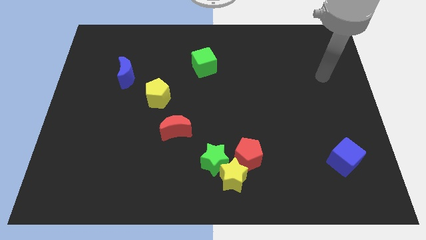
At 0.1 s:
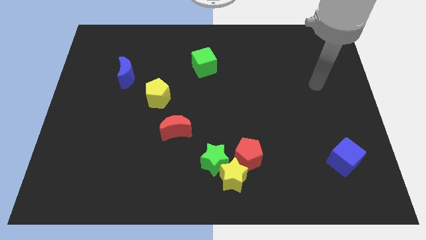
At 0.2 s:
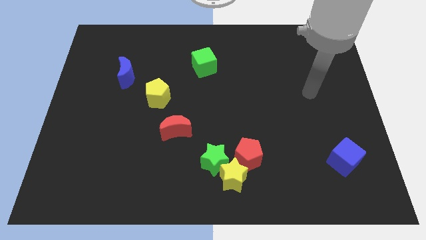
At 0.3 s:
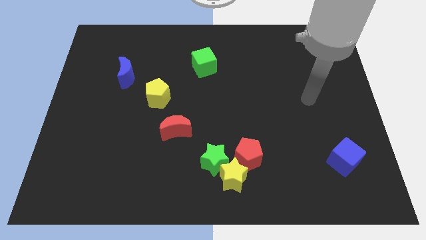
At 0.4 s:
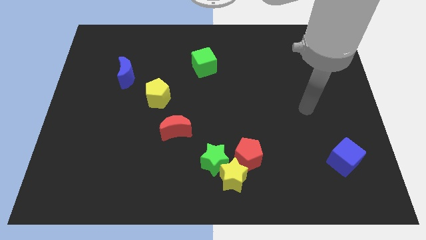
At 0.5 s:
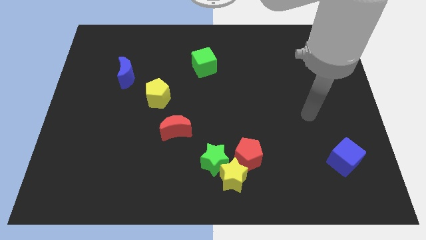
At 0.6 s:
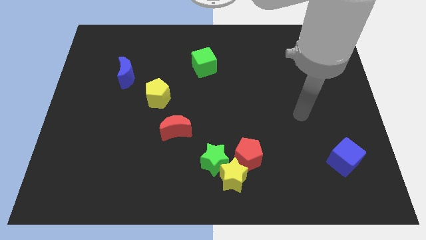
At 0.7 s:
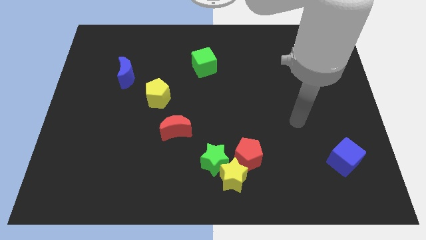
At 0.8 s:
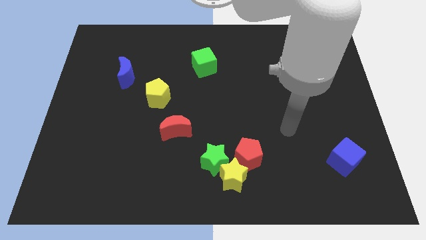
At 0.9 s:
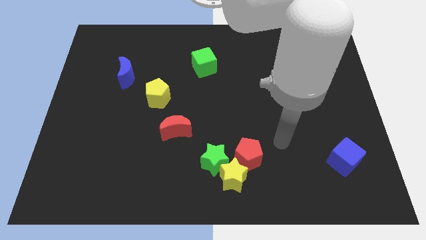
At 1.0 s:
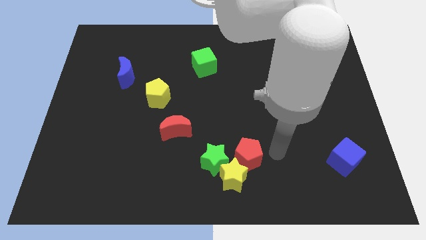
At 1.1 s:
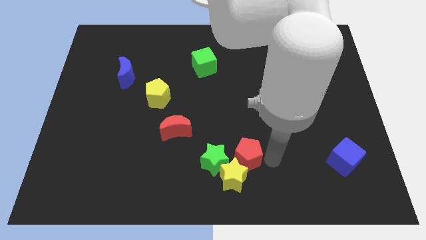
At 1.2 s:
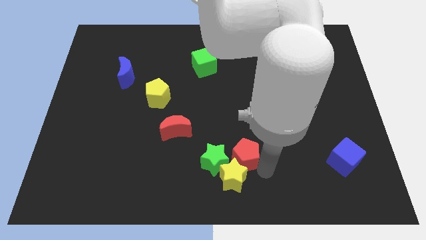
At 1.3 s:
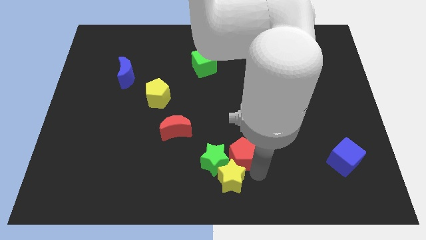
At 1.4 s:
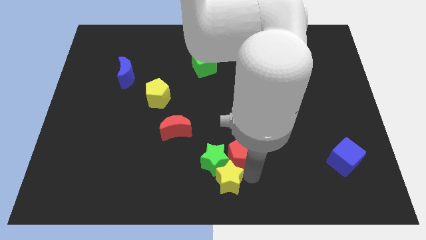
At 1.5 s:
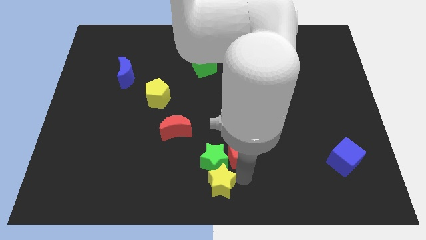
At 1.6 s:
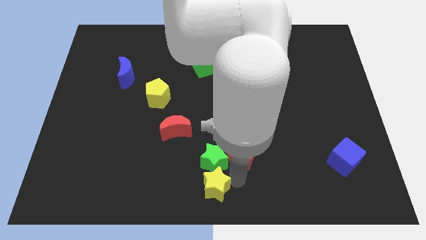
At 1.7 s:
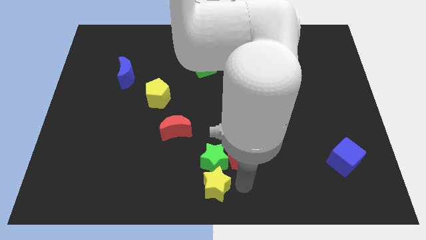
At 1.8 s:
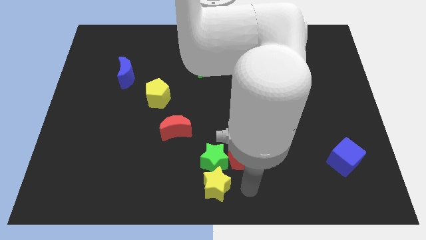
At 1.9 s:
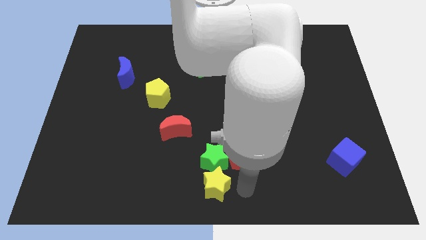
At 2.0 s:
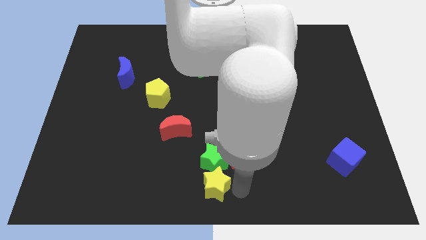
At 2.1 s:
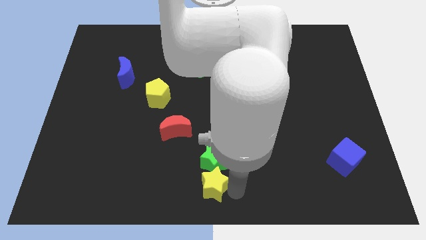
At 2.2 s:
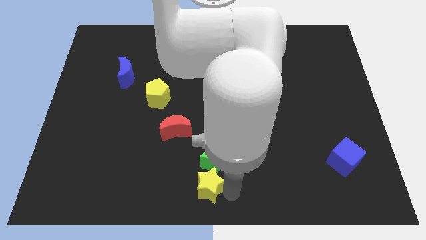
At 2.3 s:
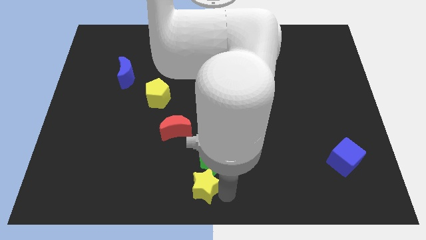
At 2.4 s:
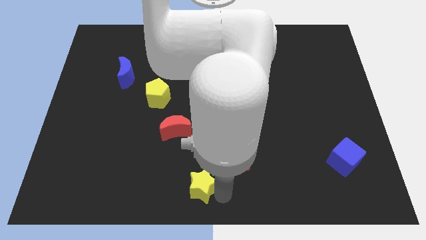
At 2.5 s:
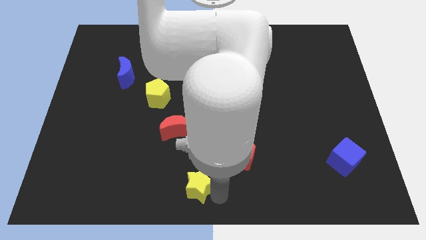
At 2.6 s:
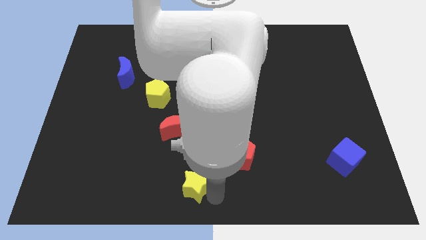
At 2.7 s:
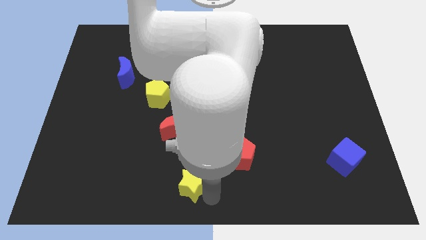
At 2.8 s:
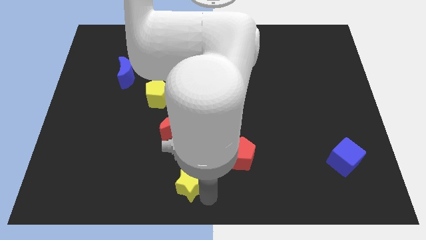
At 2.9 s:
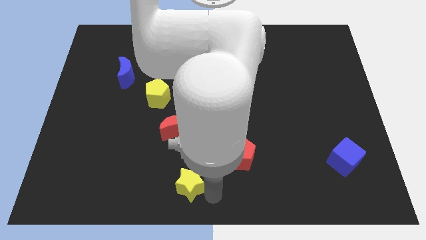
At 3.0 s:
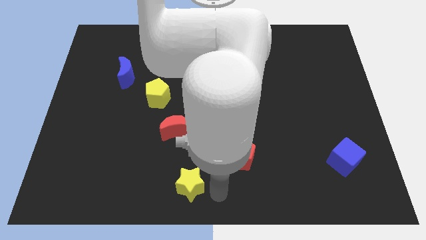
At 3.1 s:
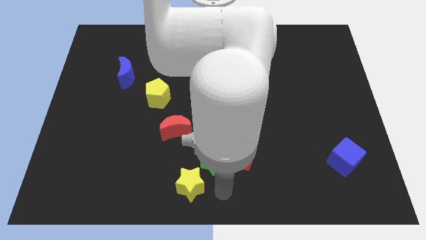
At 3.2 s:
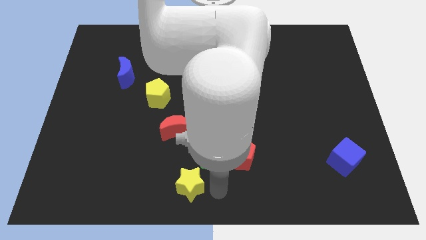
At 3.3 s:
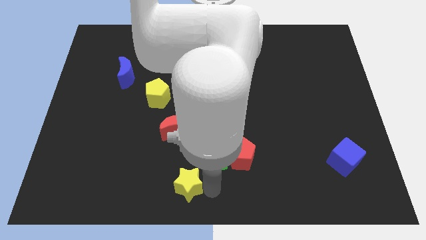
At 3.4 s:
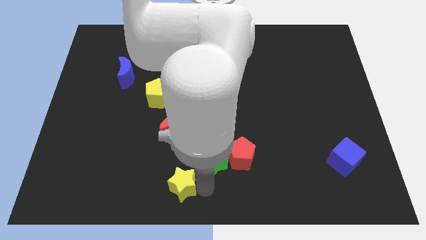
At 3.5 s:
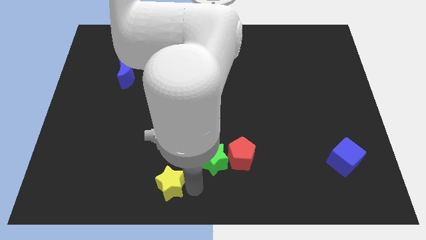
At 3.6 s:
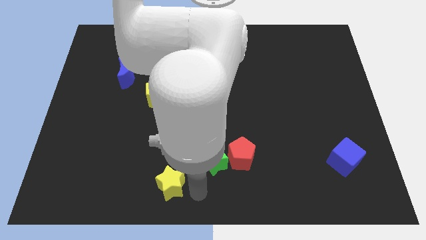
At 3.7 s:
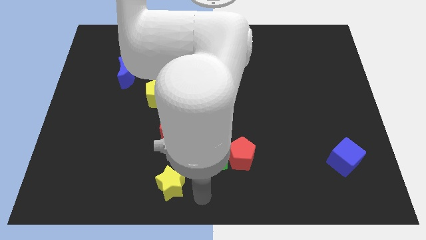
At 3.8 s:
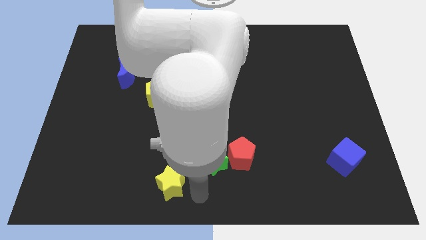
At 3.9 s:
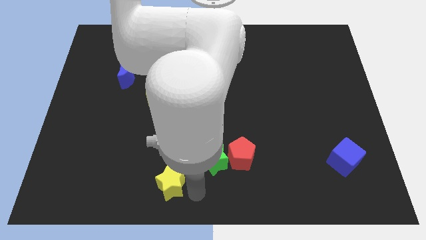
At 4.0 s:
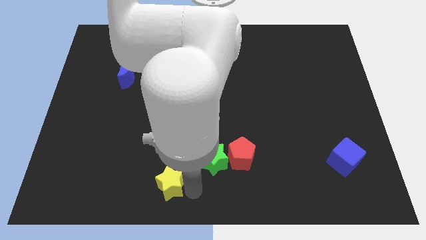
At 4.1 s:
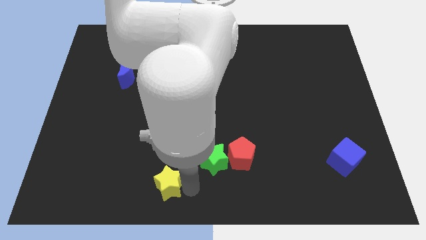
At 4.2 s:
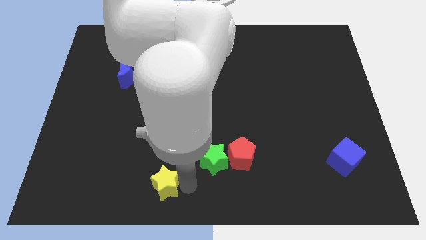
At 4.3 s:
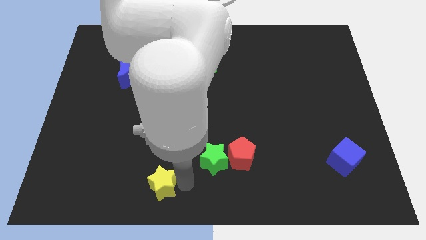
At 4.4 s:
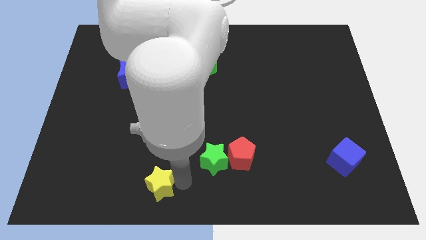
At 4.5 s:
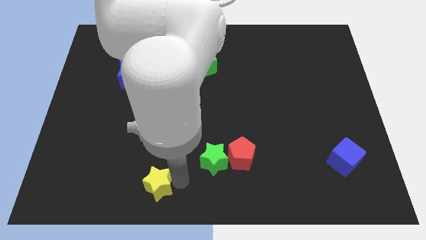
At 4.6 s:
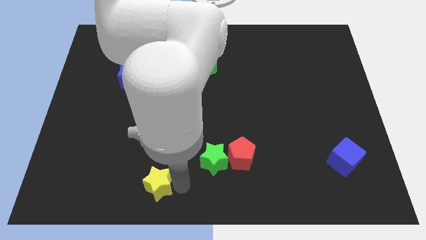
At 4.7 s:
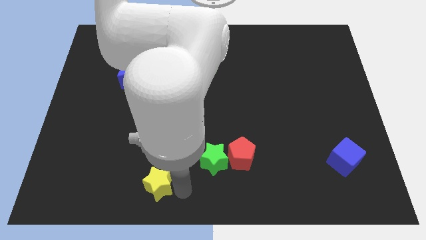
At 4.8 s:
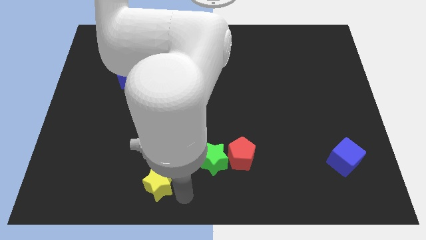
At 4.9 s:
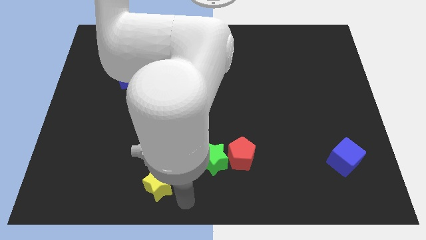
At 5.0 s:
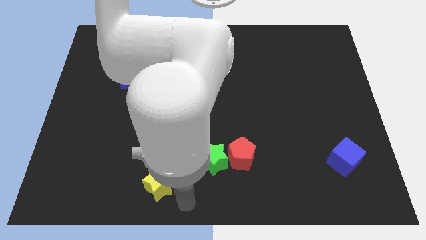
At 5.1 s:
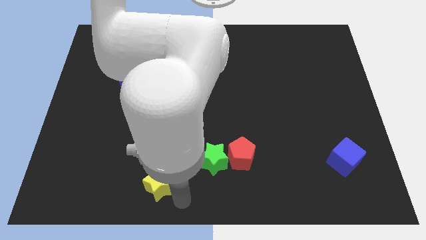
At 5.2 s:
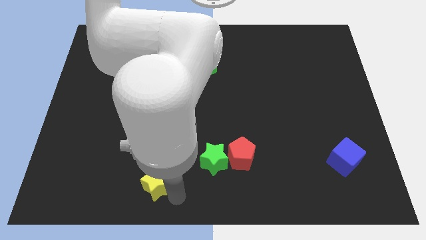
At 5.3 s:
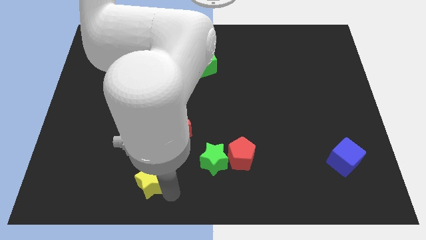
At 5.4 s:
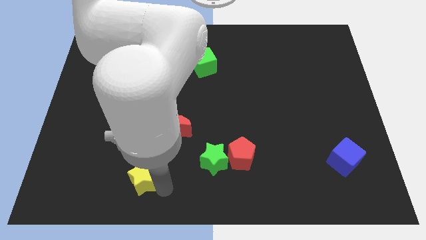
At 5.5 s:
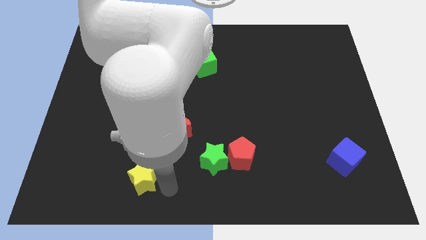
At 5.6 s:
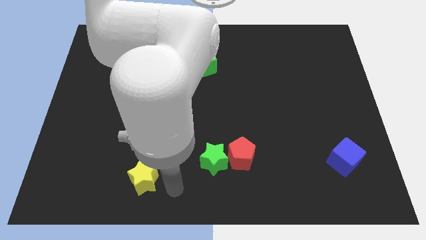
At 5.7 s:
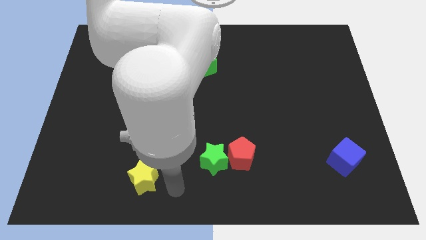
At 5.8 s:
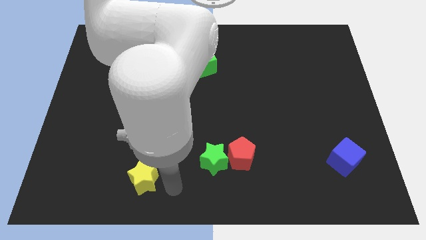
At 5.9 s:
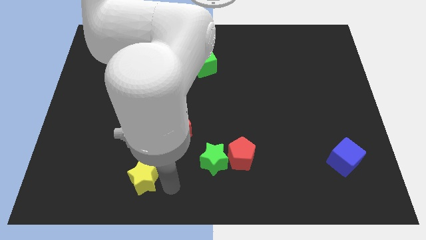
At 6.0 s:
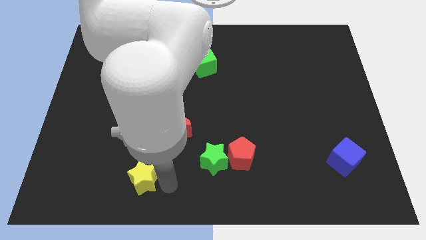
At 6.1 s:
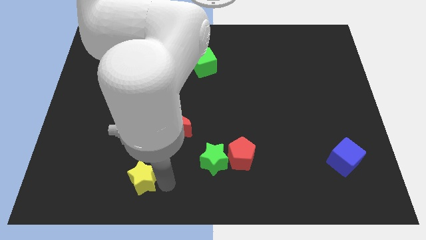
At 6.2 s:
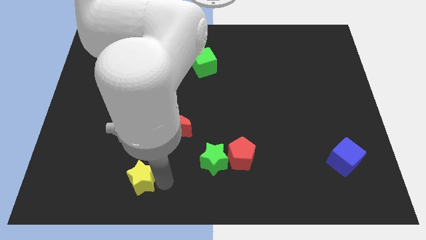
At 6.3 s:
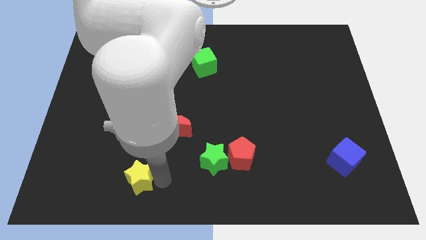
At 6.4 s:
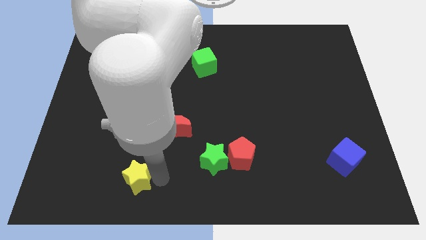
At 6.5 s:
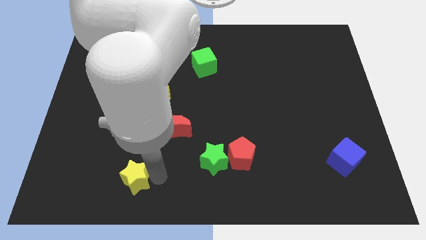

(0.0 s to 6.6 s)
push the yellow star left

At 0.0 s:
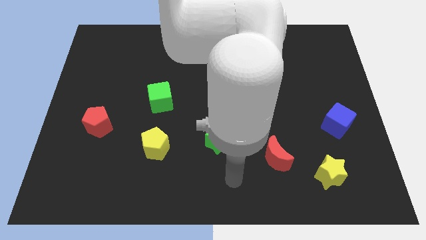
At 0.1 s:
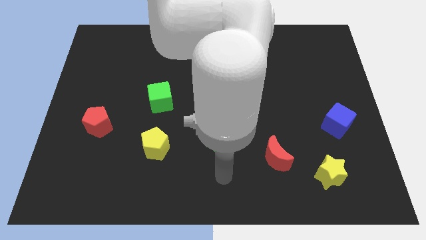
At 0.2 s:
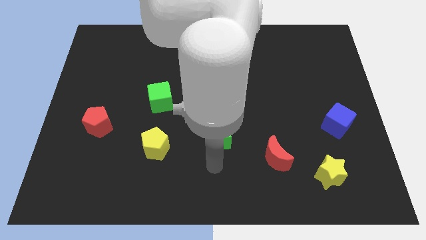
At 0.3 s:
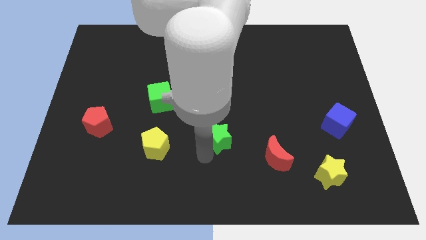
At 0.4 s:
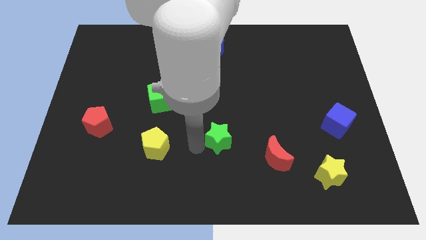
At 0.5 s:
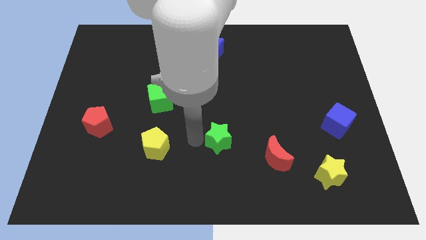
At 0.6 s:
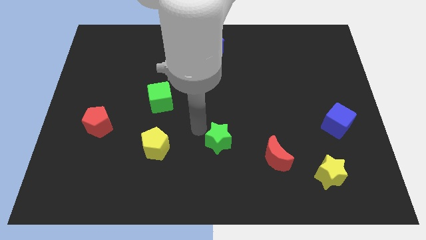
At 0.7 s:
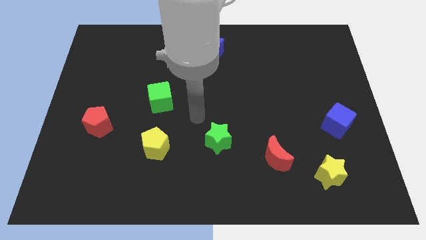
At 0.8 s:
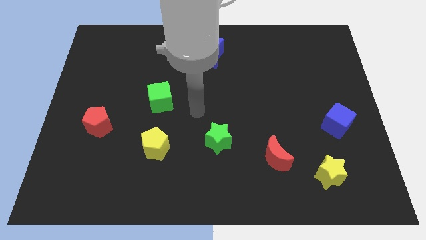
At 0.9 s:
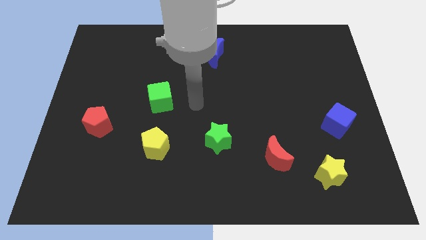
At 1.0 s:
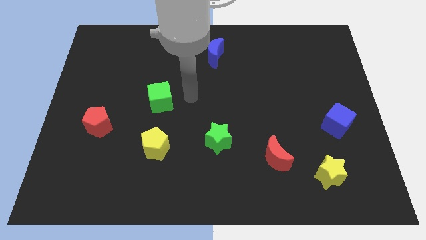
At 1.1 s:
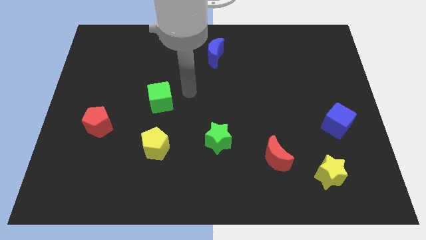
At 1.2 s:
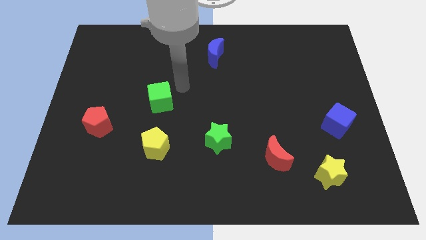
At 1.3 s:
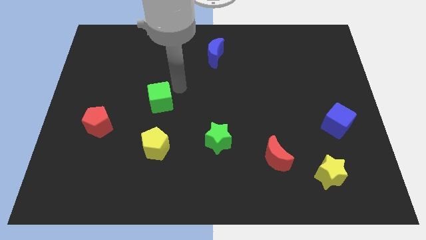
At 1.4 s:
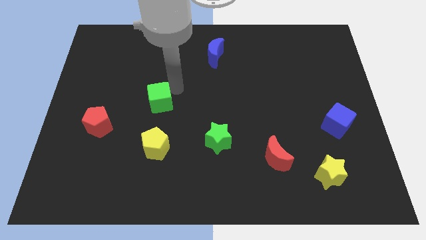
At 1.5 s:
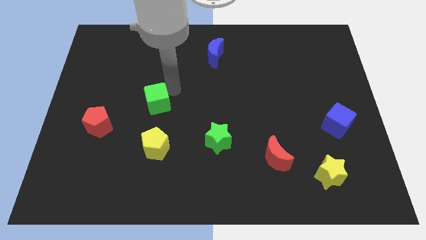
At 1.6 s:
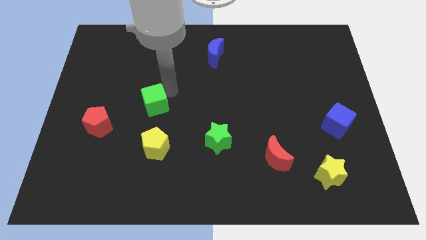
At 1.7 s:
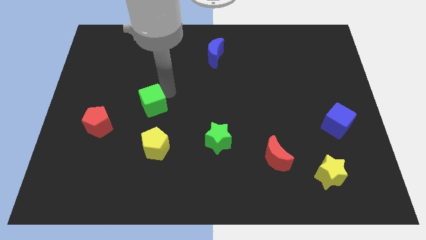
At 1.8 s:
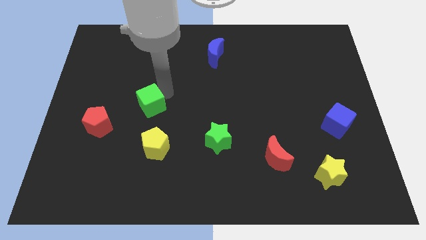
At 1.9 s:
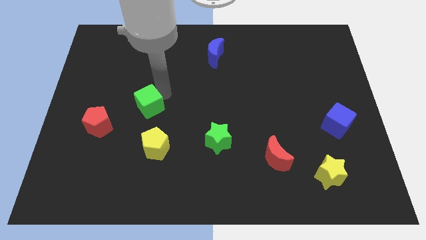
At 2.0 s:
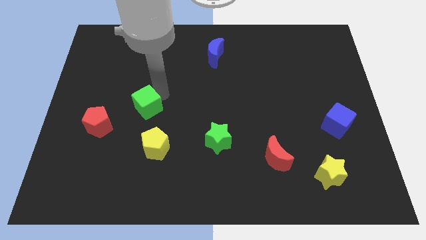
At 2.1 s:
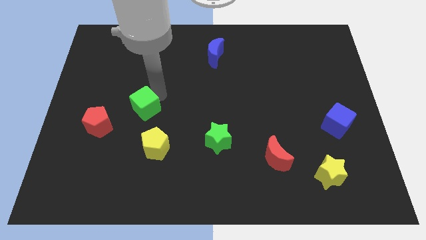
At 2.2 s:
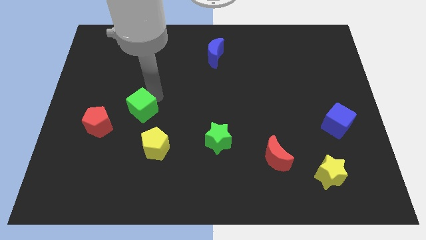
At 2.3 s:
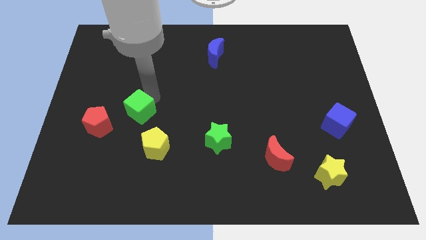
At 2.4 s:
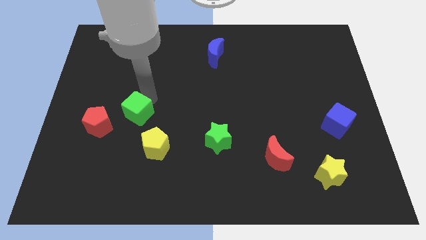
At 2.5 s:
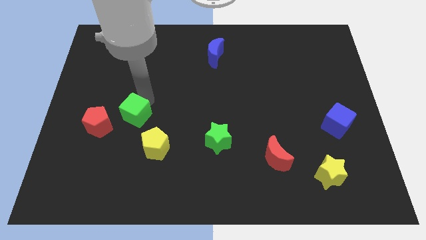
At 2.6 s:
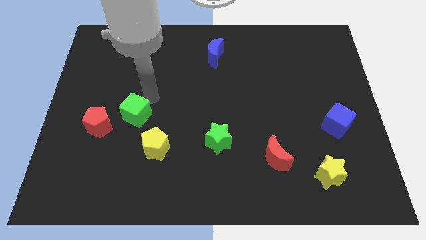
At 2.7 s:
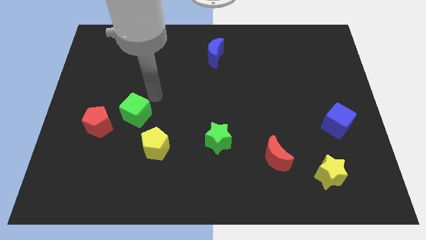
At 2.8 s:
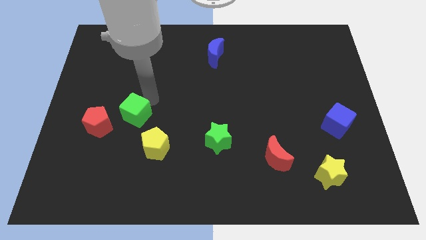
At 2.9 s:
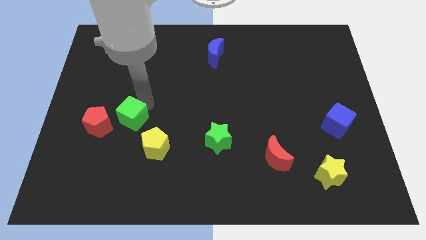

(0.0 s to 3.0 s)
move the green cube a bit down and left
